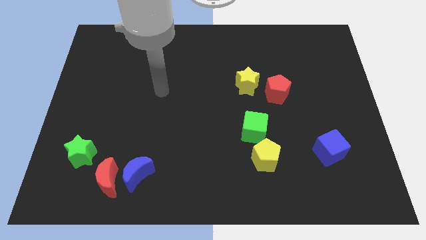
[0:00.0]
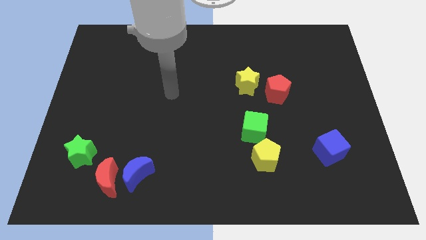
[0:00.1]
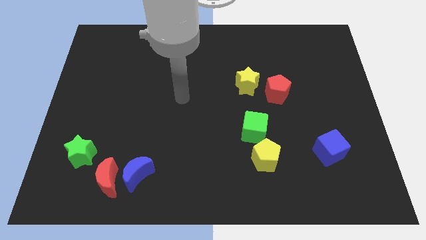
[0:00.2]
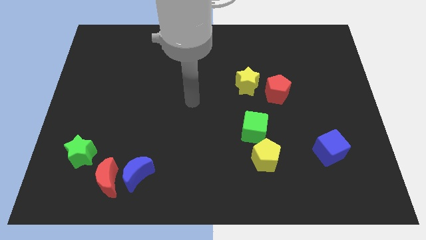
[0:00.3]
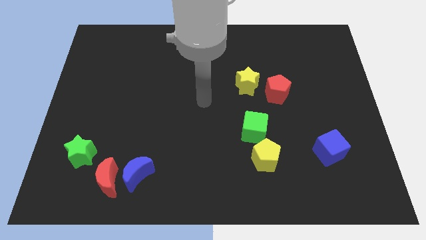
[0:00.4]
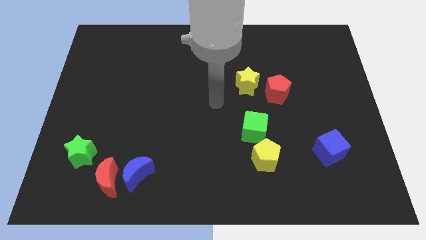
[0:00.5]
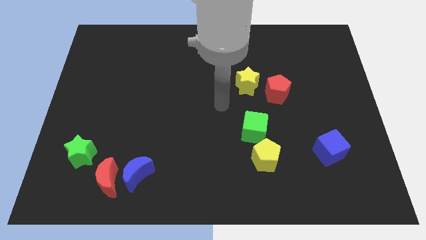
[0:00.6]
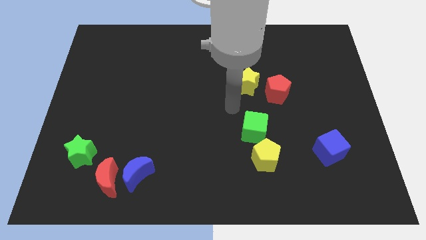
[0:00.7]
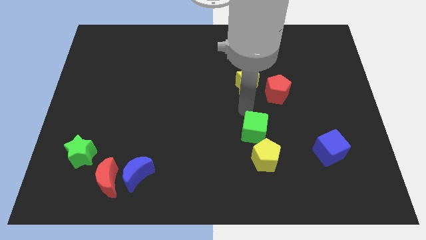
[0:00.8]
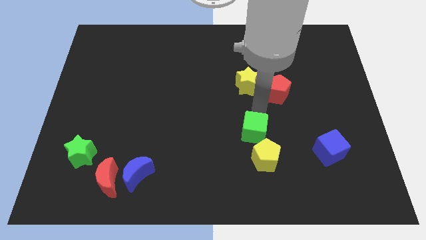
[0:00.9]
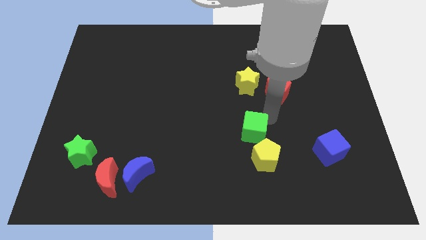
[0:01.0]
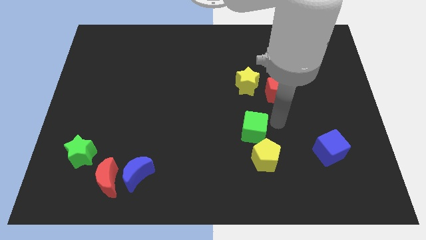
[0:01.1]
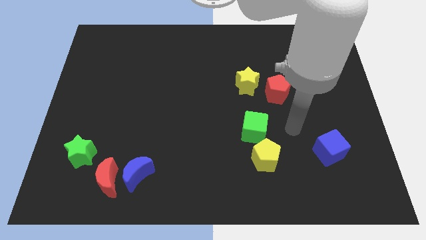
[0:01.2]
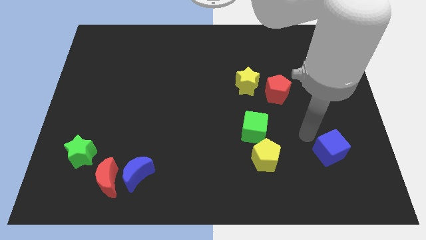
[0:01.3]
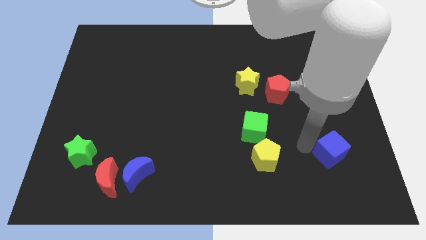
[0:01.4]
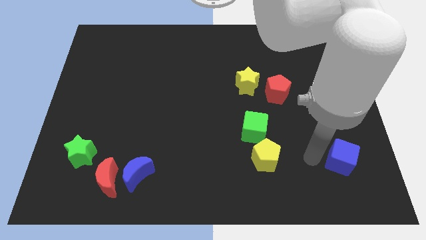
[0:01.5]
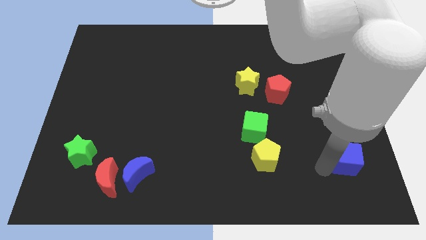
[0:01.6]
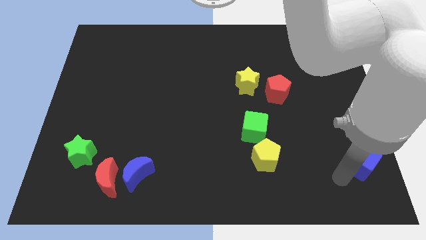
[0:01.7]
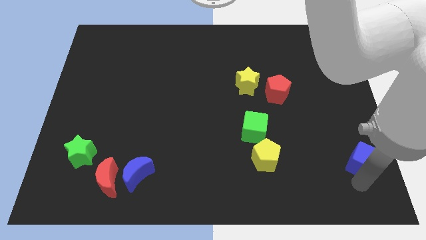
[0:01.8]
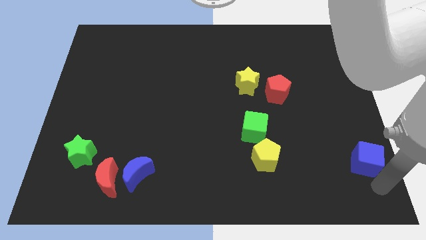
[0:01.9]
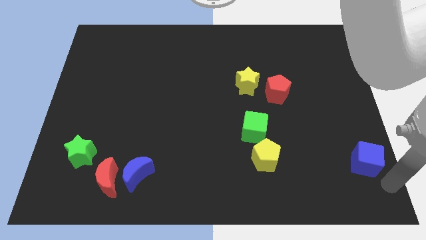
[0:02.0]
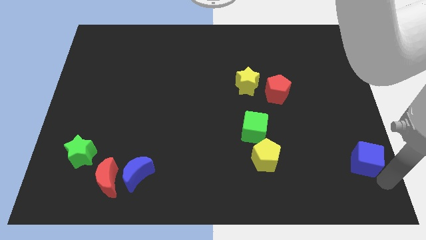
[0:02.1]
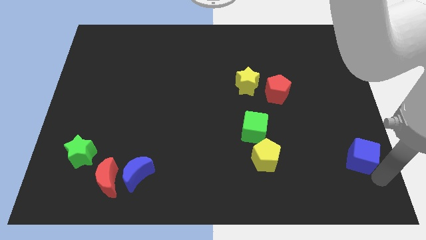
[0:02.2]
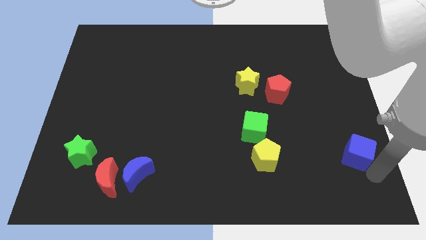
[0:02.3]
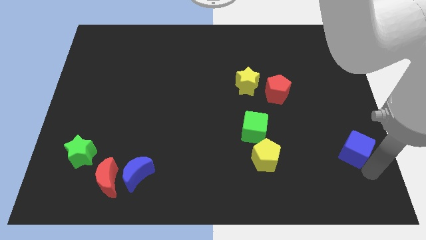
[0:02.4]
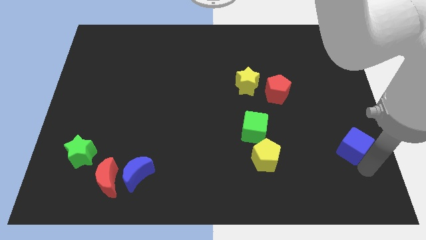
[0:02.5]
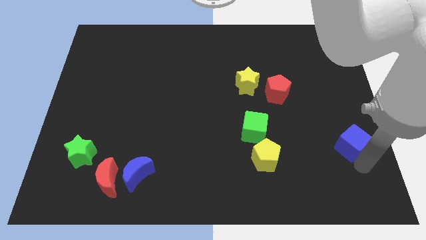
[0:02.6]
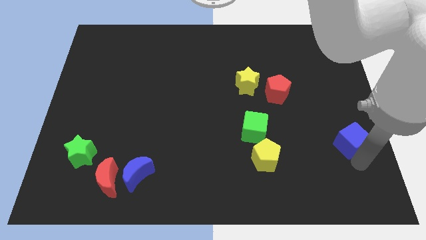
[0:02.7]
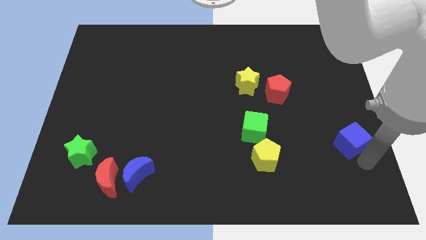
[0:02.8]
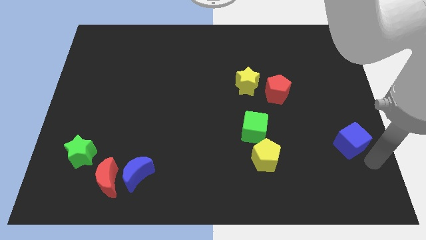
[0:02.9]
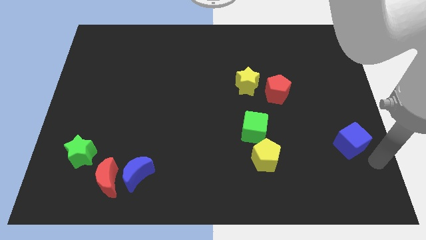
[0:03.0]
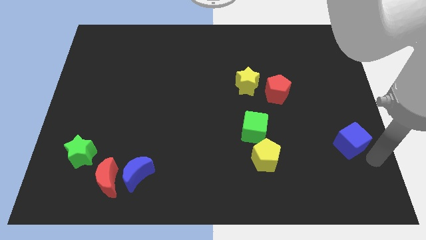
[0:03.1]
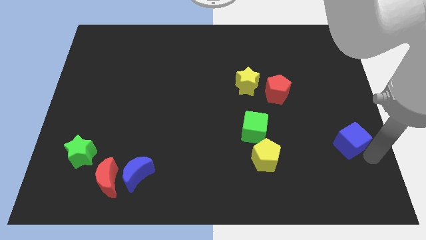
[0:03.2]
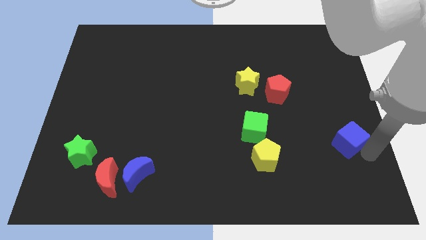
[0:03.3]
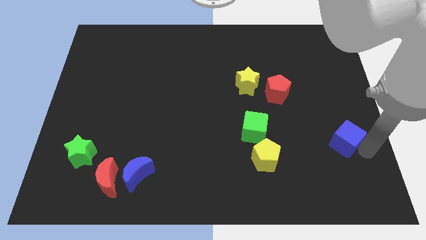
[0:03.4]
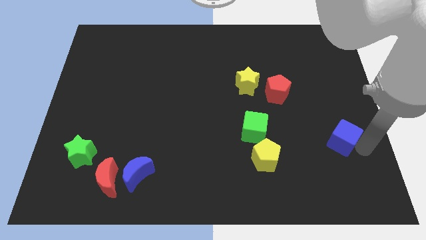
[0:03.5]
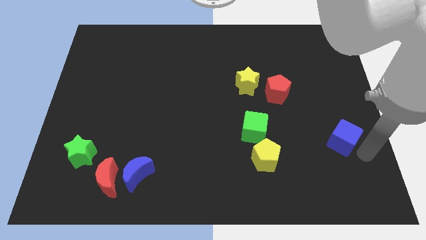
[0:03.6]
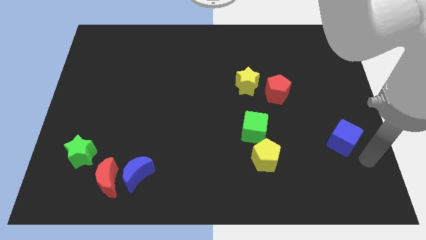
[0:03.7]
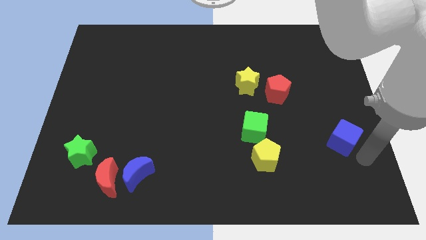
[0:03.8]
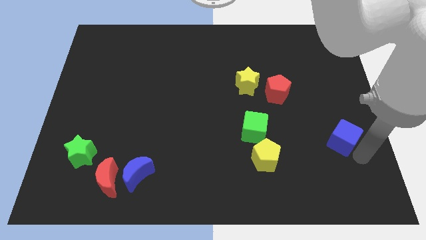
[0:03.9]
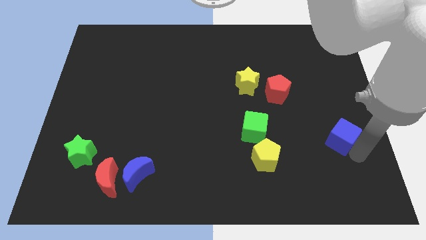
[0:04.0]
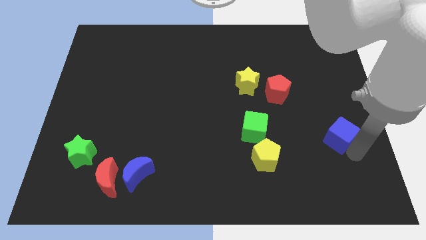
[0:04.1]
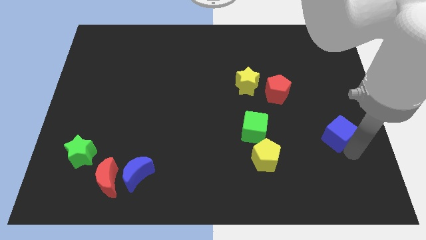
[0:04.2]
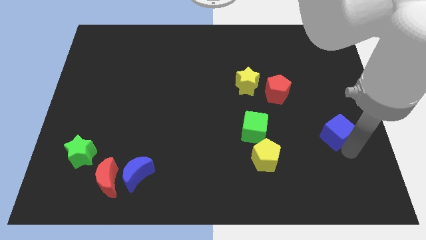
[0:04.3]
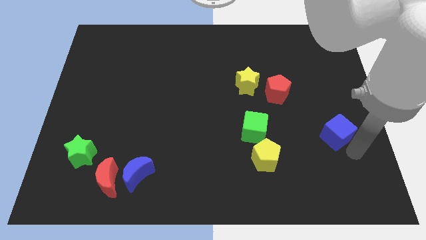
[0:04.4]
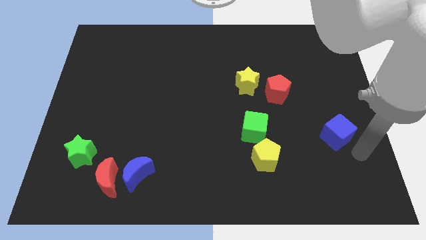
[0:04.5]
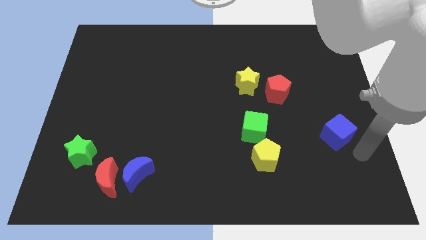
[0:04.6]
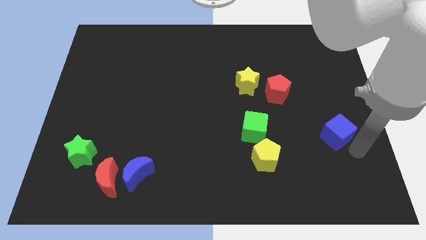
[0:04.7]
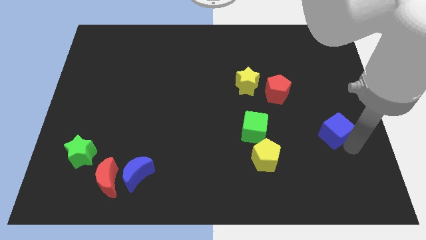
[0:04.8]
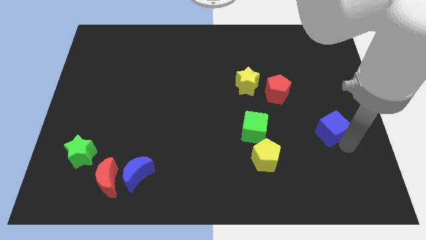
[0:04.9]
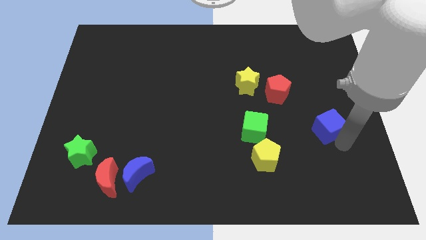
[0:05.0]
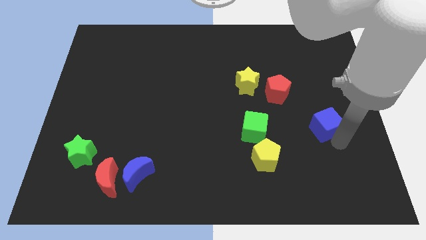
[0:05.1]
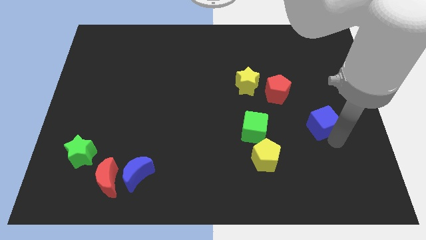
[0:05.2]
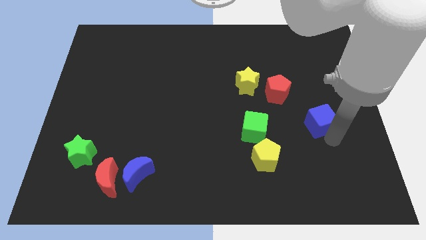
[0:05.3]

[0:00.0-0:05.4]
move the blue cube upwards a little bit

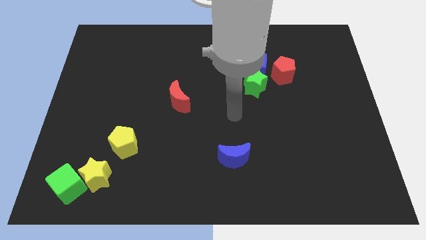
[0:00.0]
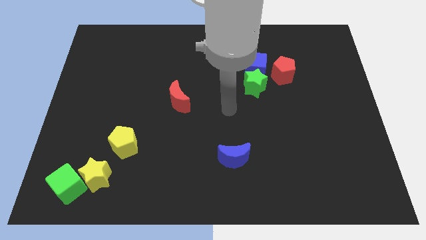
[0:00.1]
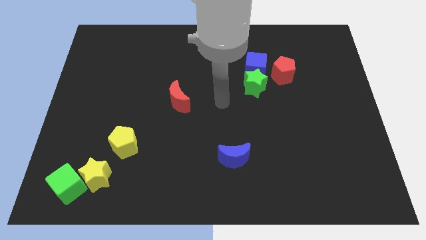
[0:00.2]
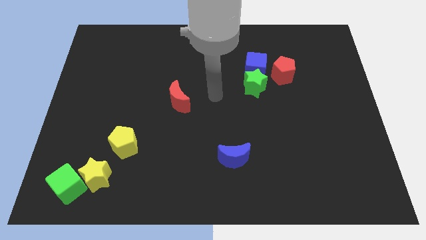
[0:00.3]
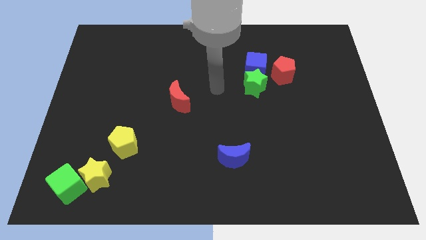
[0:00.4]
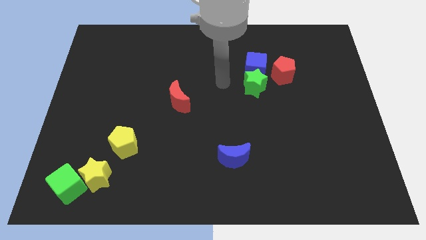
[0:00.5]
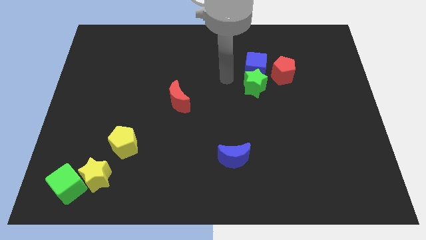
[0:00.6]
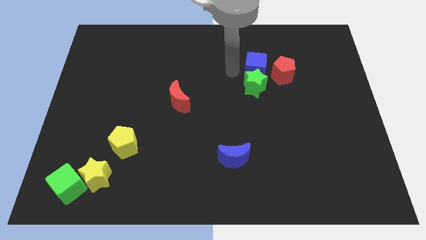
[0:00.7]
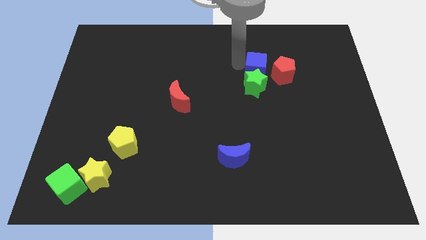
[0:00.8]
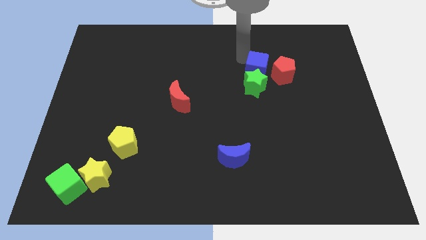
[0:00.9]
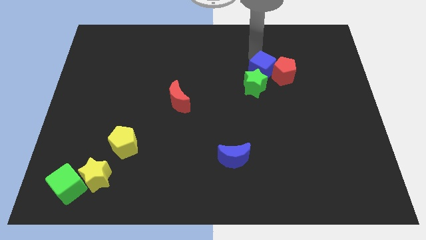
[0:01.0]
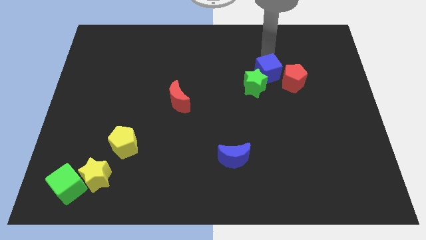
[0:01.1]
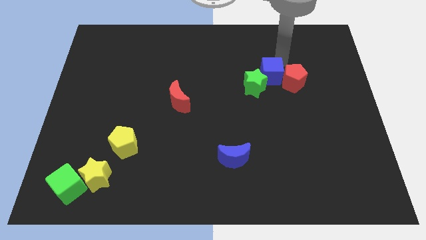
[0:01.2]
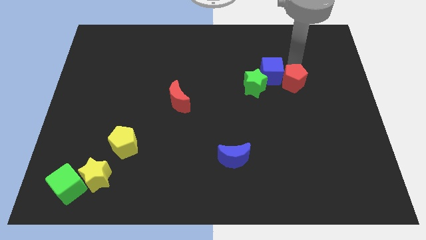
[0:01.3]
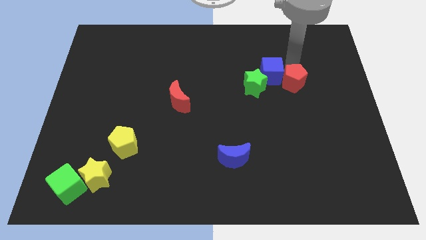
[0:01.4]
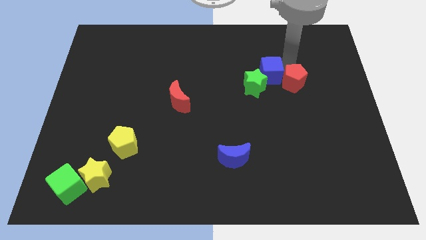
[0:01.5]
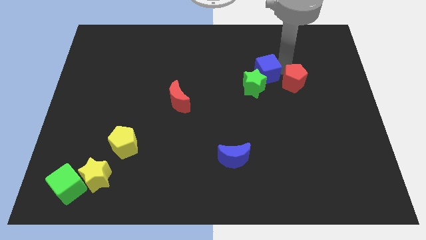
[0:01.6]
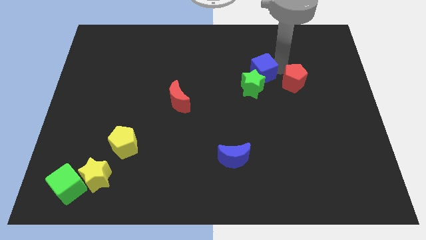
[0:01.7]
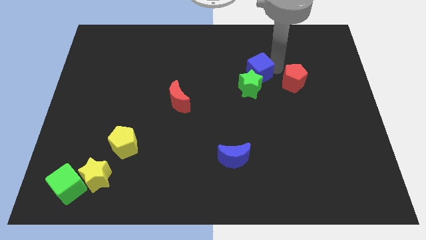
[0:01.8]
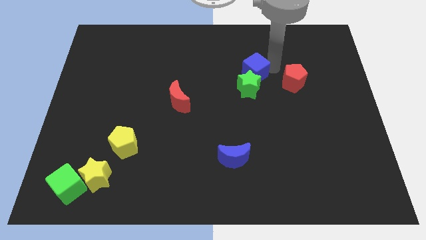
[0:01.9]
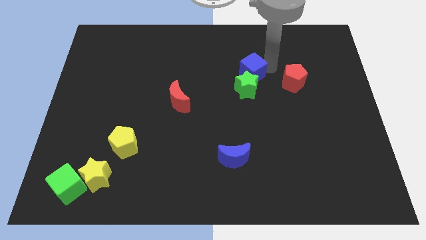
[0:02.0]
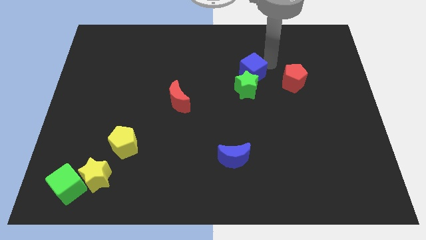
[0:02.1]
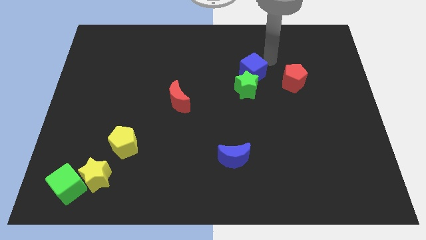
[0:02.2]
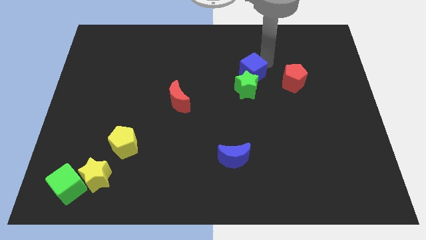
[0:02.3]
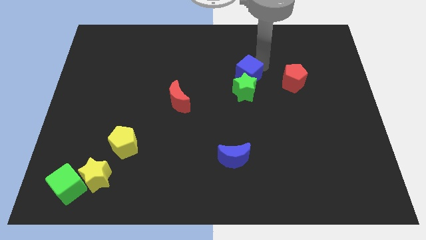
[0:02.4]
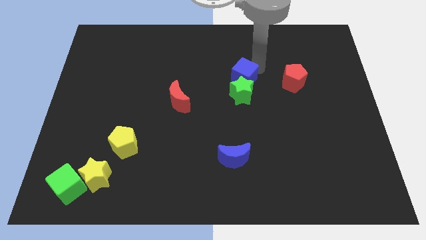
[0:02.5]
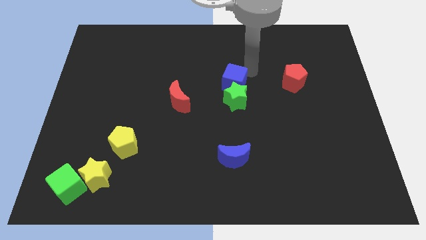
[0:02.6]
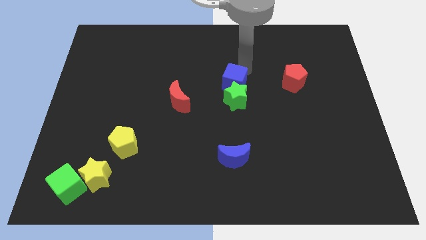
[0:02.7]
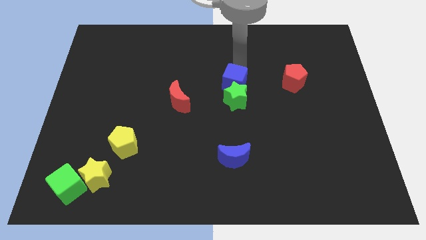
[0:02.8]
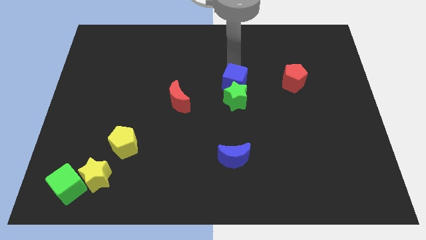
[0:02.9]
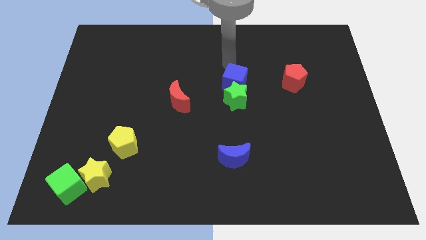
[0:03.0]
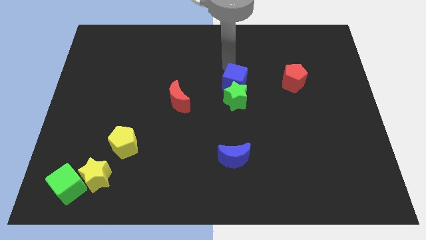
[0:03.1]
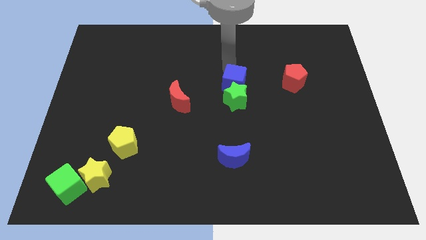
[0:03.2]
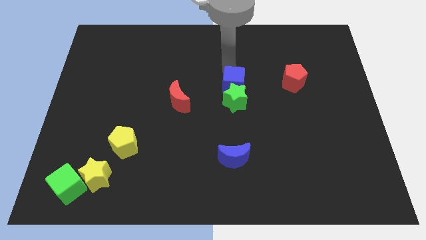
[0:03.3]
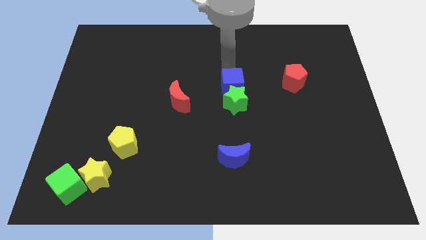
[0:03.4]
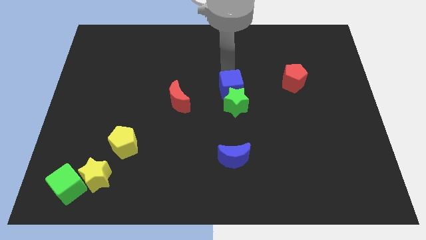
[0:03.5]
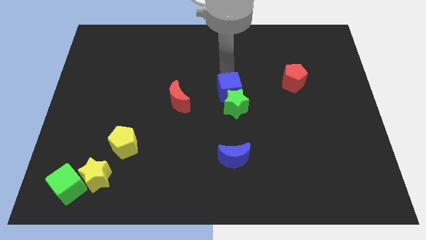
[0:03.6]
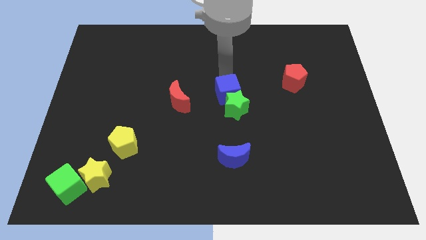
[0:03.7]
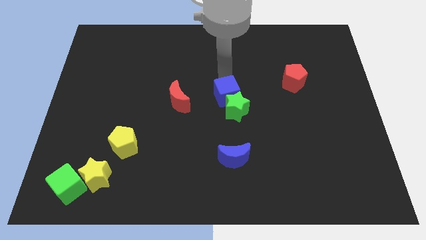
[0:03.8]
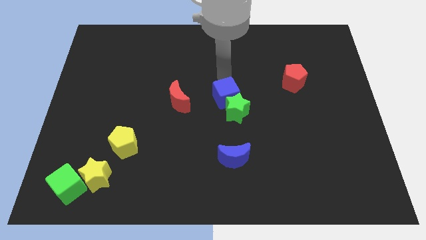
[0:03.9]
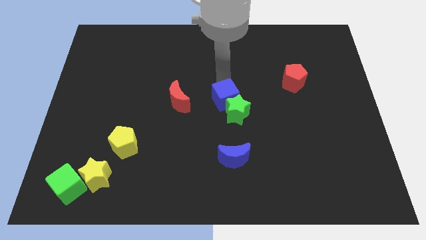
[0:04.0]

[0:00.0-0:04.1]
move the blue cube somewhat down
